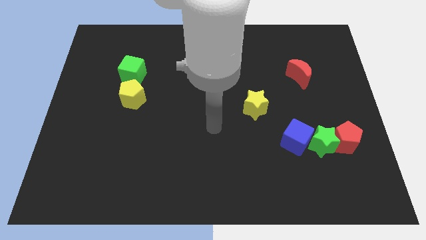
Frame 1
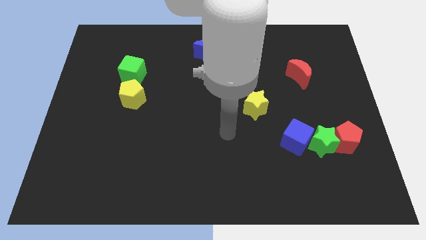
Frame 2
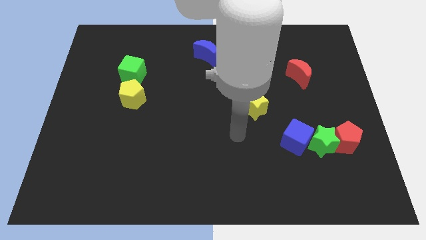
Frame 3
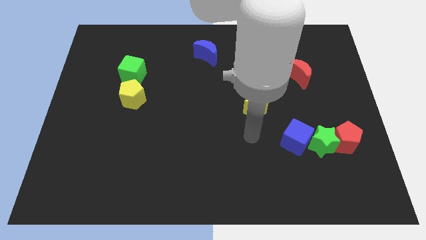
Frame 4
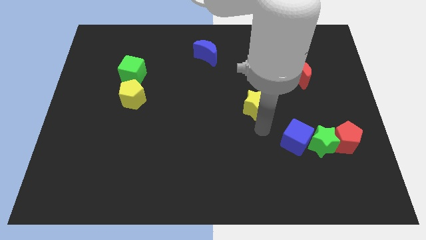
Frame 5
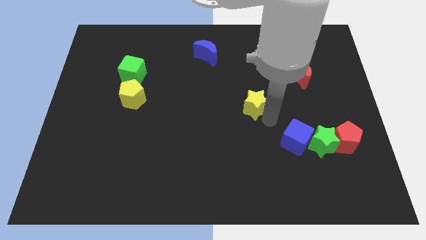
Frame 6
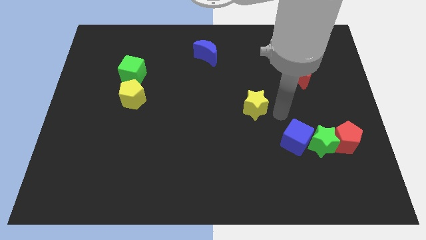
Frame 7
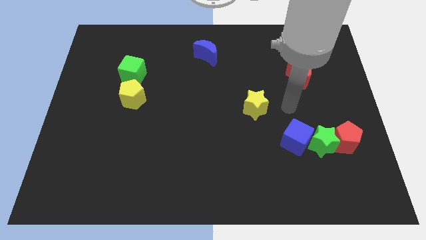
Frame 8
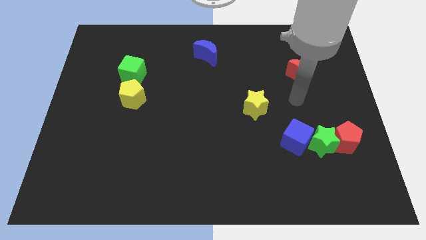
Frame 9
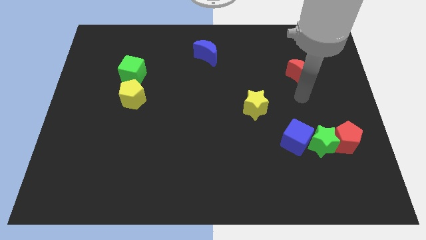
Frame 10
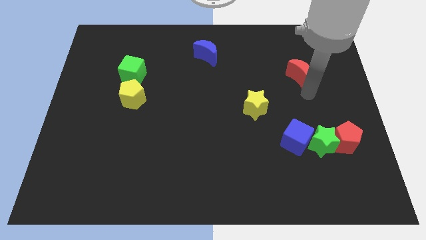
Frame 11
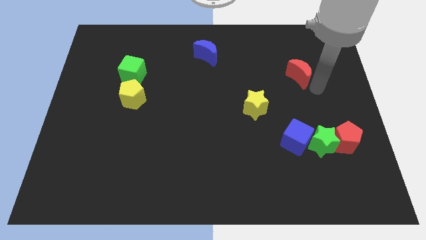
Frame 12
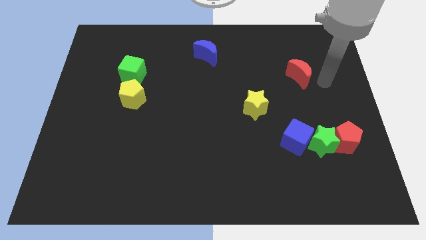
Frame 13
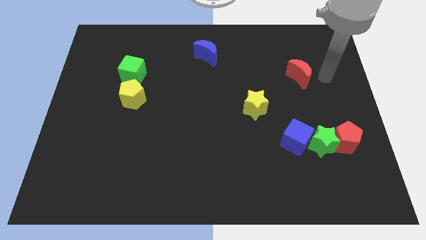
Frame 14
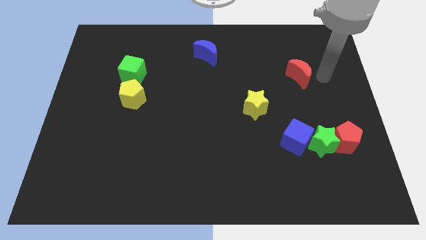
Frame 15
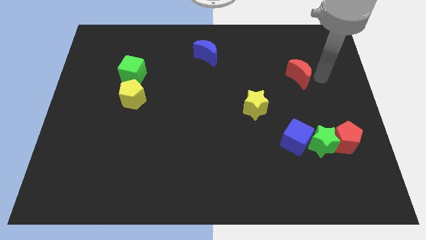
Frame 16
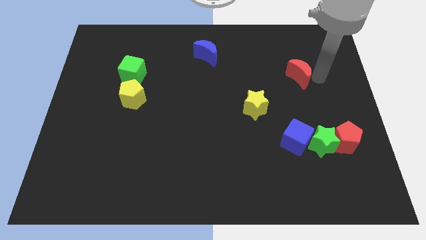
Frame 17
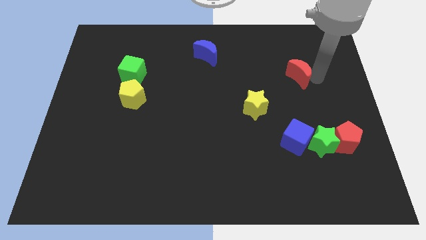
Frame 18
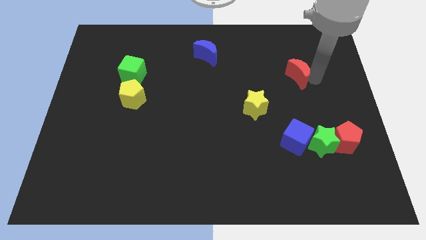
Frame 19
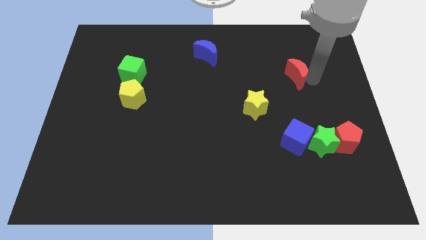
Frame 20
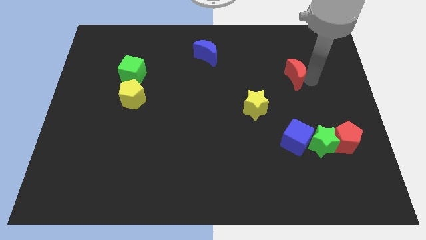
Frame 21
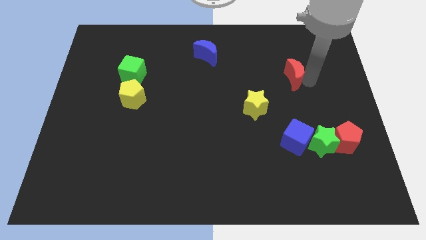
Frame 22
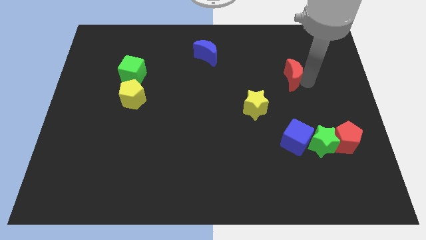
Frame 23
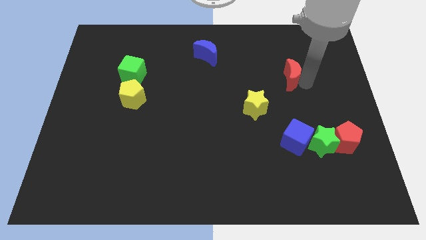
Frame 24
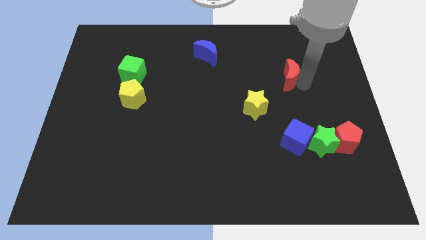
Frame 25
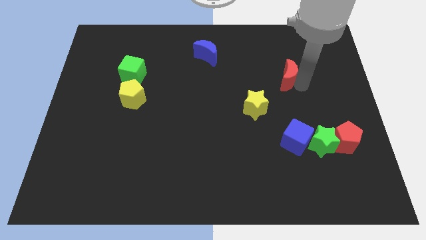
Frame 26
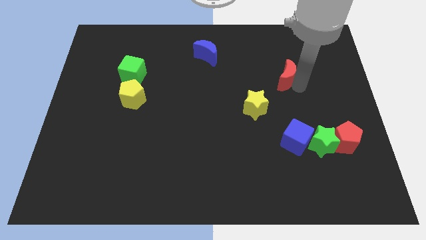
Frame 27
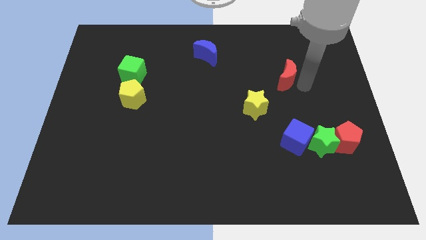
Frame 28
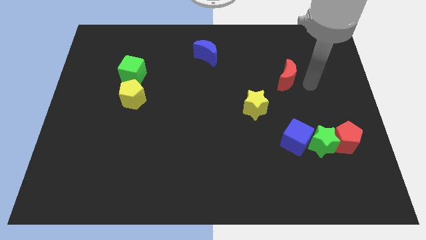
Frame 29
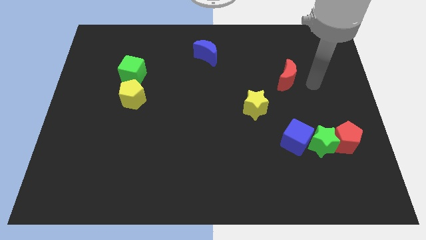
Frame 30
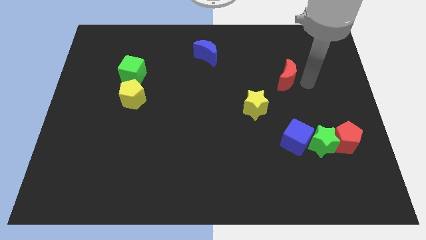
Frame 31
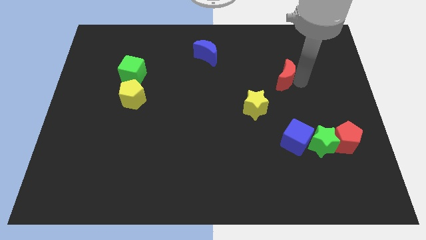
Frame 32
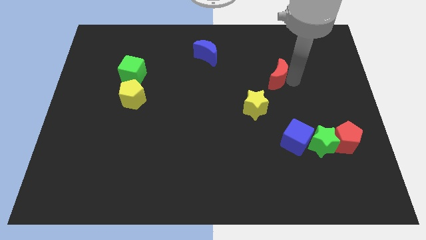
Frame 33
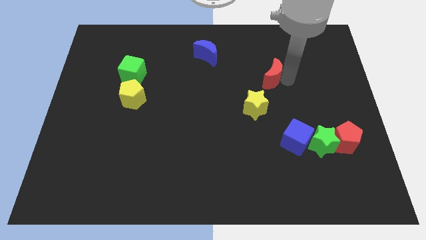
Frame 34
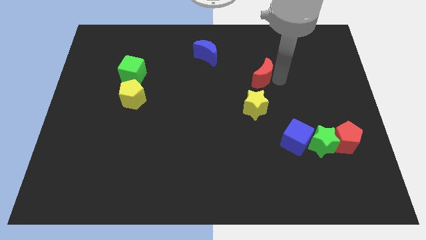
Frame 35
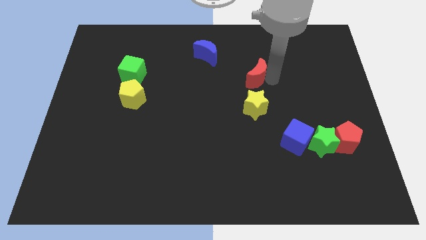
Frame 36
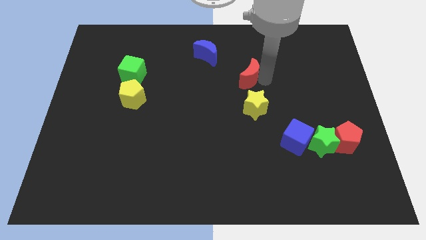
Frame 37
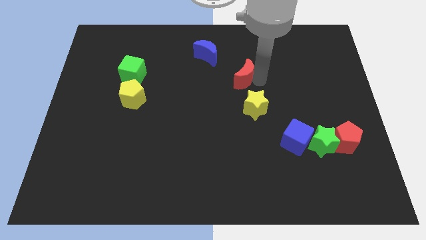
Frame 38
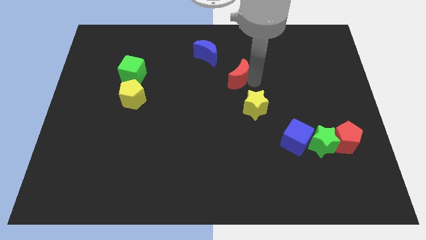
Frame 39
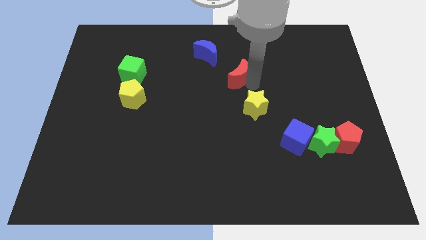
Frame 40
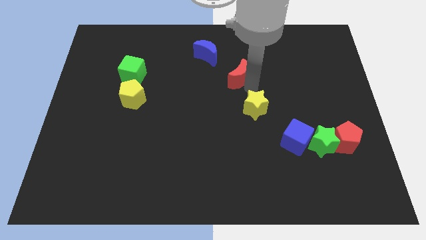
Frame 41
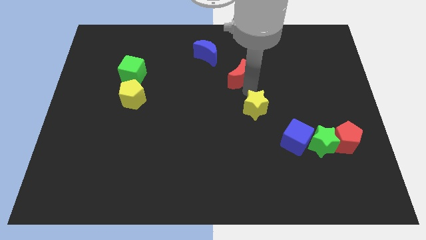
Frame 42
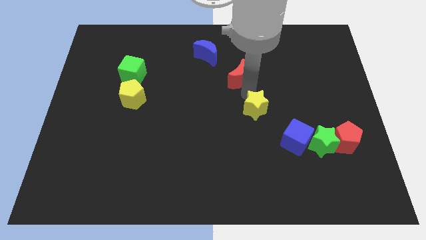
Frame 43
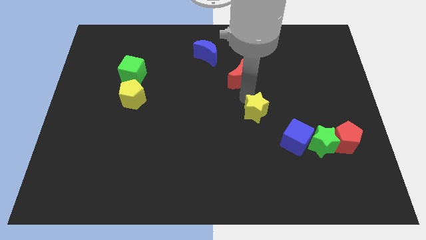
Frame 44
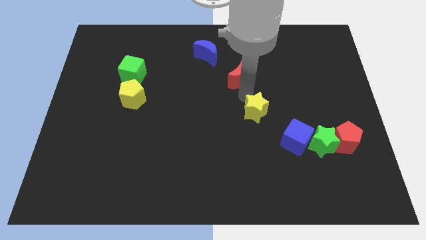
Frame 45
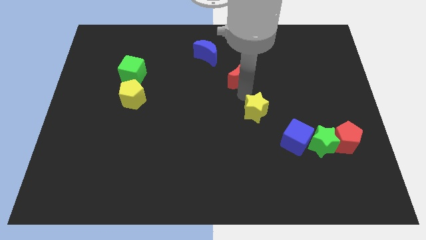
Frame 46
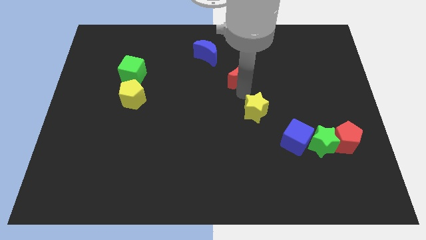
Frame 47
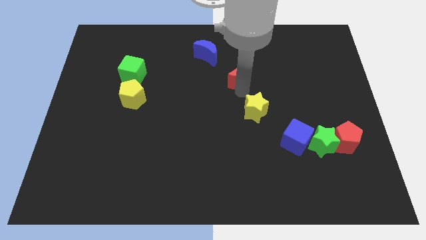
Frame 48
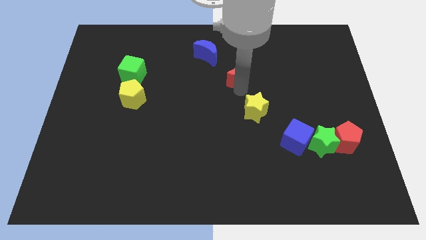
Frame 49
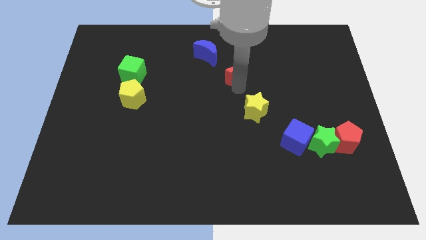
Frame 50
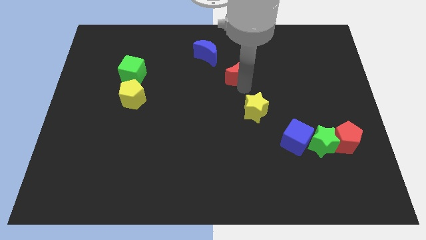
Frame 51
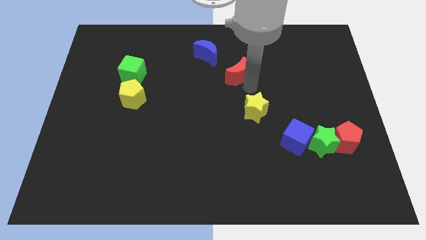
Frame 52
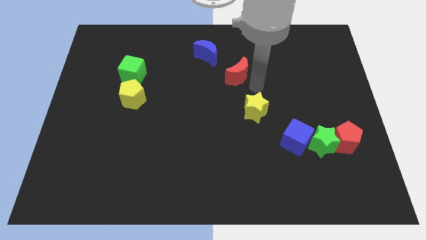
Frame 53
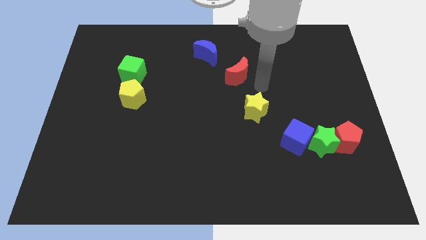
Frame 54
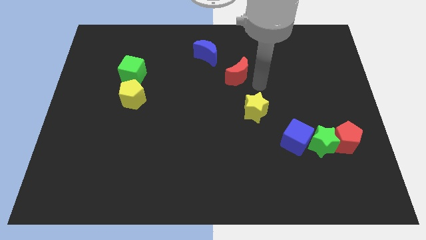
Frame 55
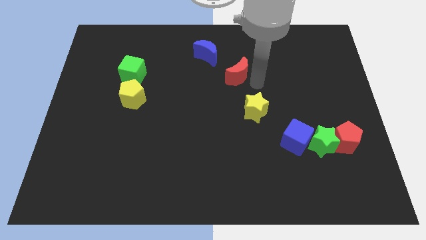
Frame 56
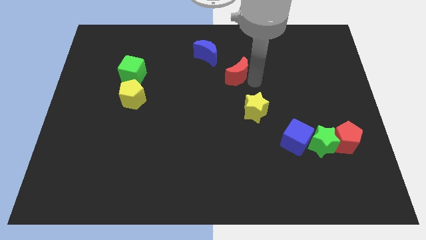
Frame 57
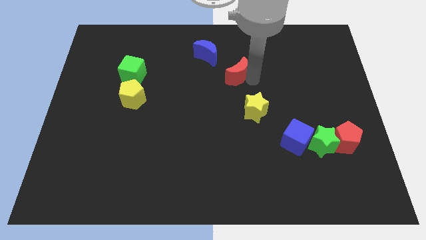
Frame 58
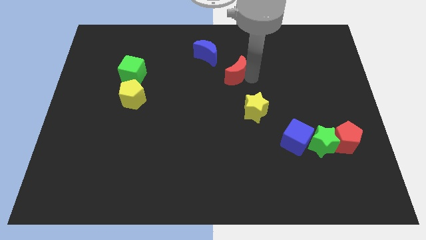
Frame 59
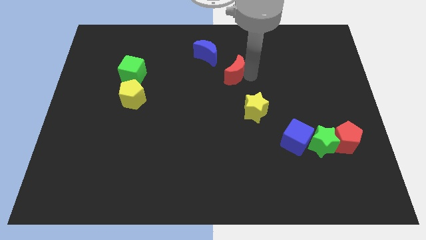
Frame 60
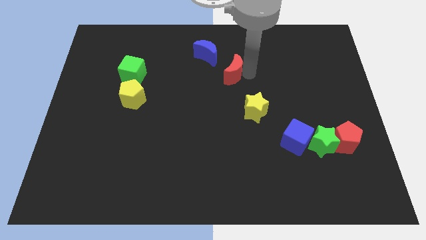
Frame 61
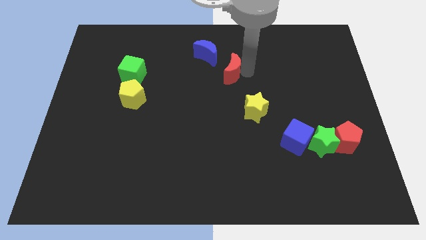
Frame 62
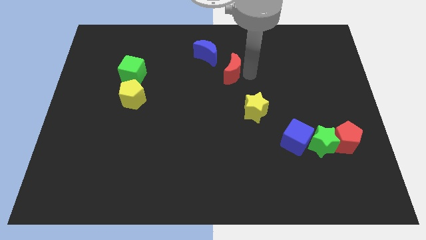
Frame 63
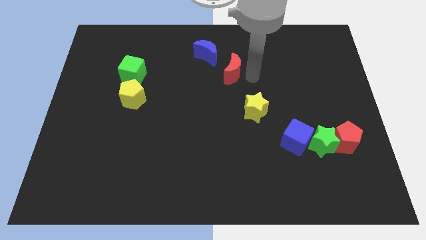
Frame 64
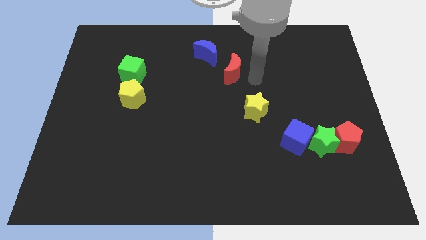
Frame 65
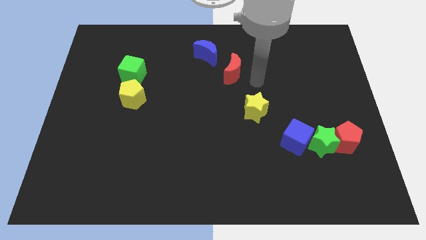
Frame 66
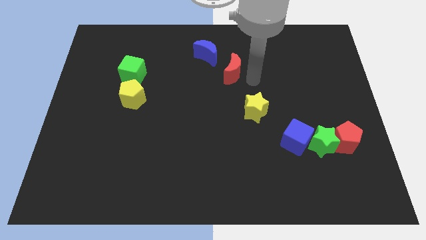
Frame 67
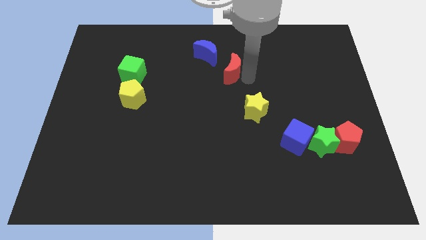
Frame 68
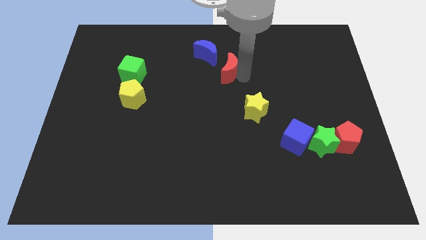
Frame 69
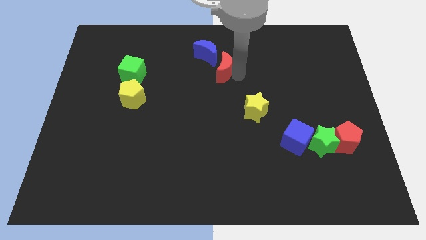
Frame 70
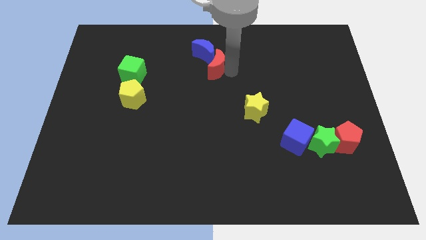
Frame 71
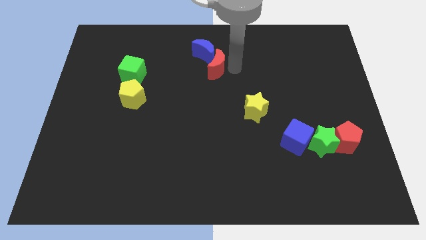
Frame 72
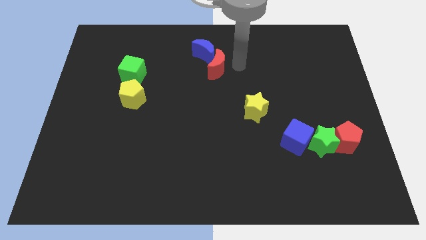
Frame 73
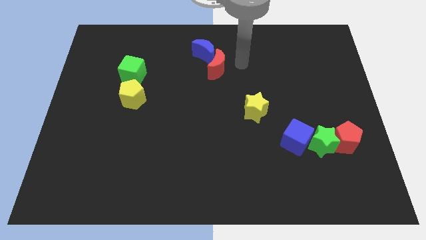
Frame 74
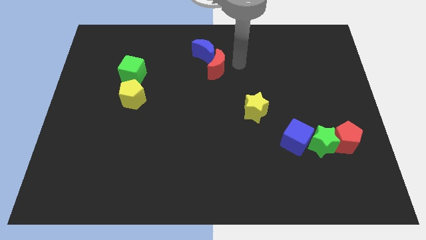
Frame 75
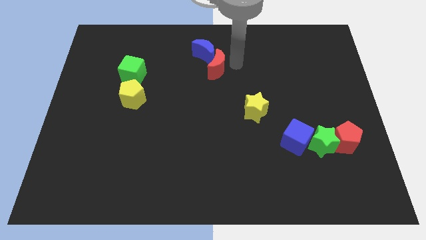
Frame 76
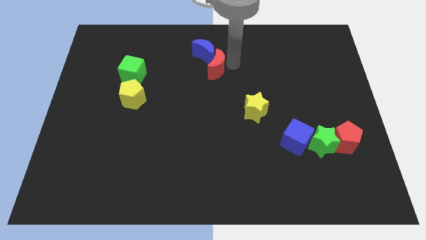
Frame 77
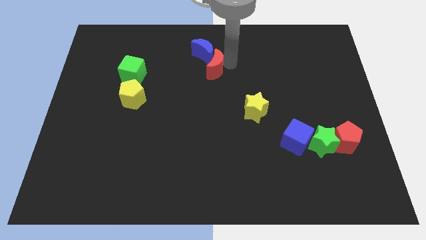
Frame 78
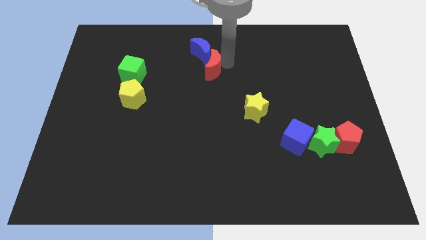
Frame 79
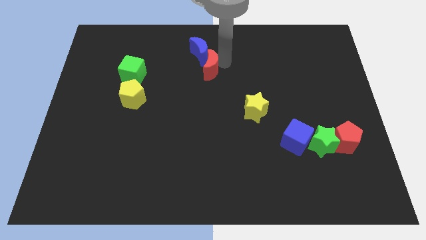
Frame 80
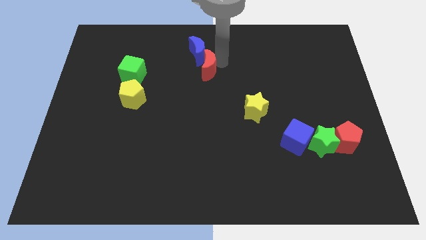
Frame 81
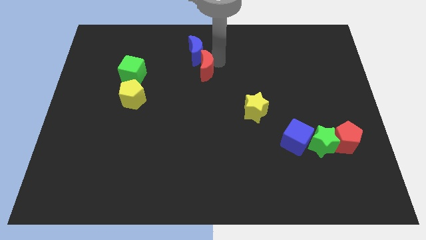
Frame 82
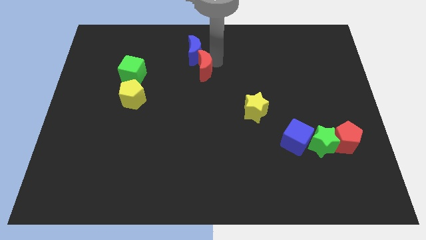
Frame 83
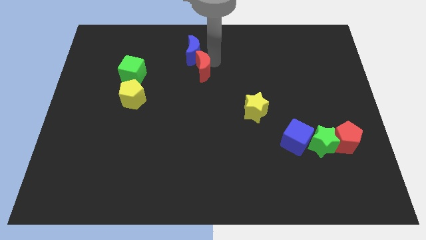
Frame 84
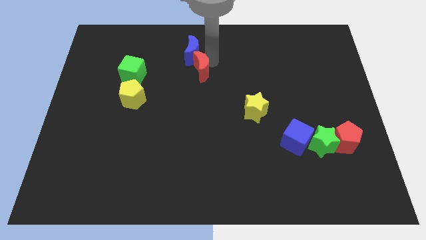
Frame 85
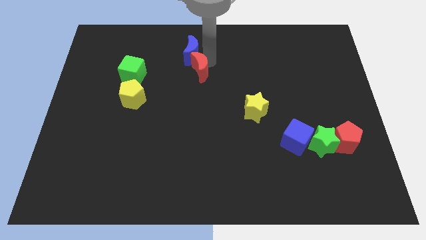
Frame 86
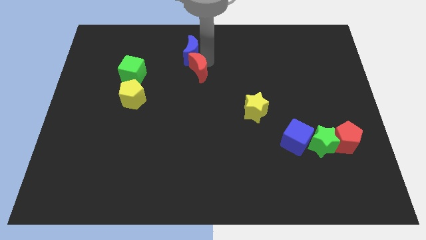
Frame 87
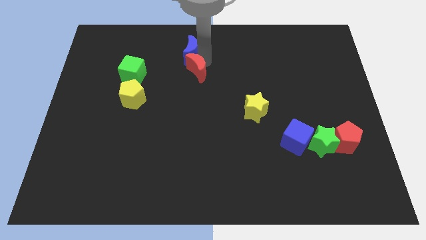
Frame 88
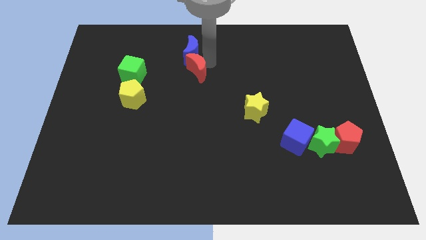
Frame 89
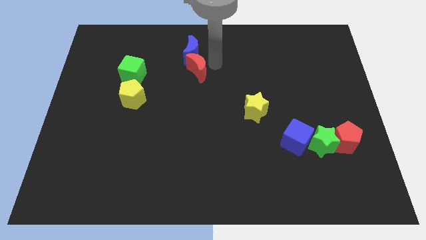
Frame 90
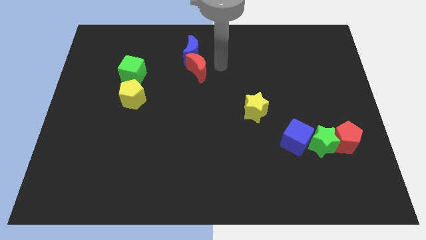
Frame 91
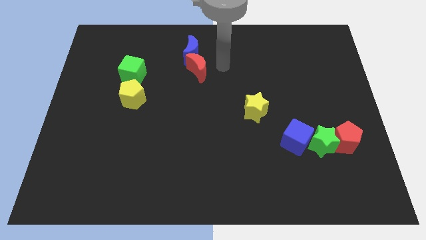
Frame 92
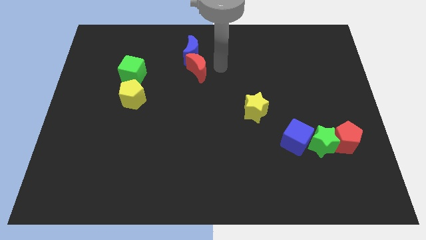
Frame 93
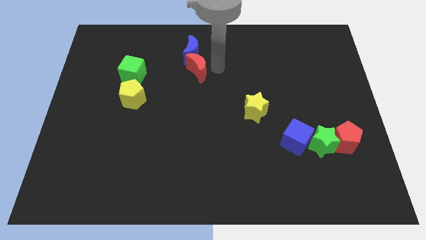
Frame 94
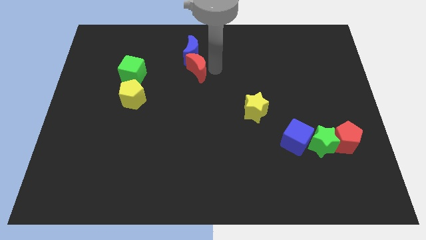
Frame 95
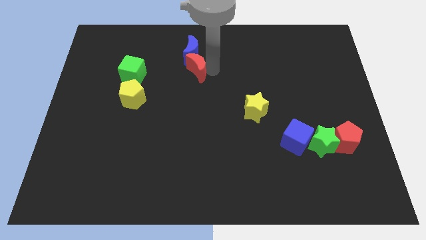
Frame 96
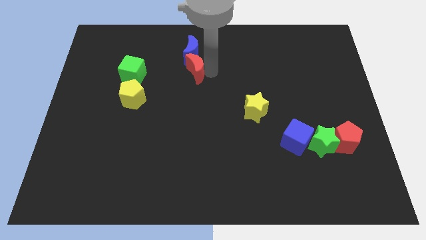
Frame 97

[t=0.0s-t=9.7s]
move the red moon just right of the green cube
